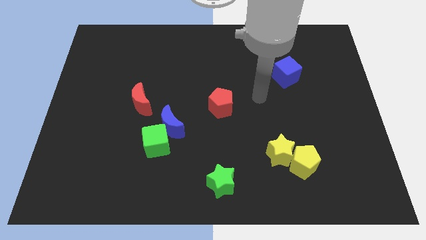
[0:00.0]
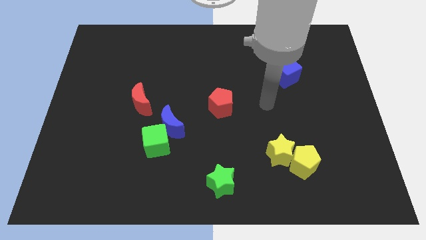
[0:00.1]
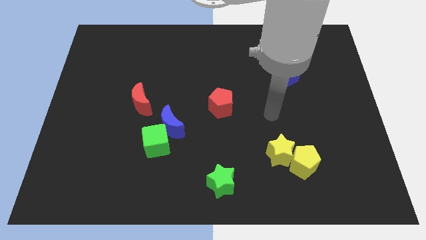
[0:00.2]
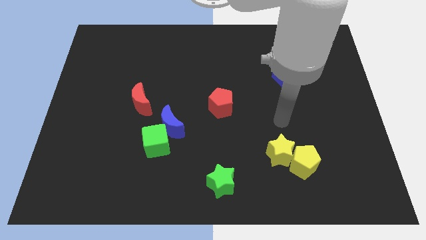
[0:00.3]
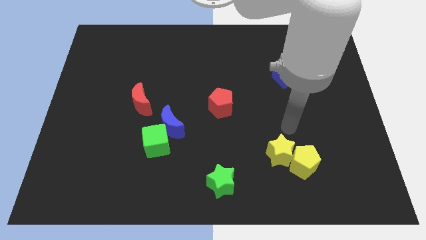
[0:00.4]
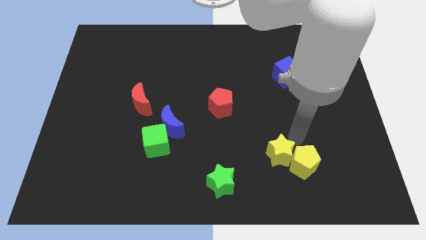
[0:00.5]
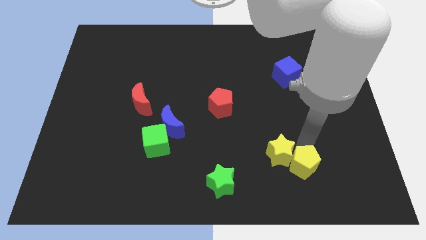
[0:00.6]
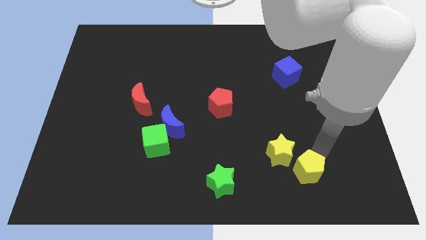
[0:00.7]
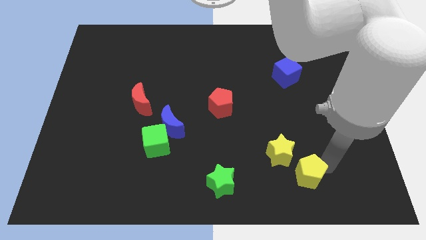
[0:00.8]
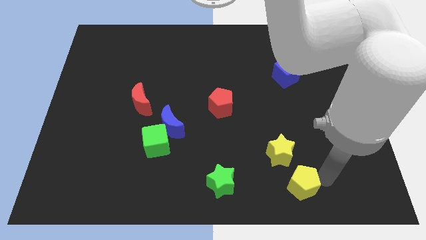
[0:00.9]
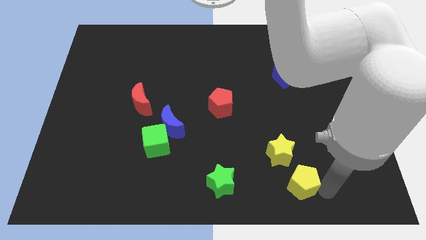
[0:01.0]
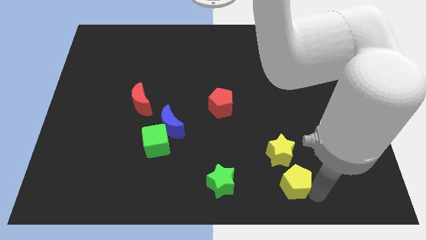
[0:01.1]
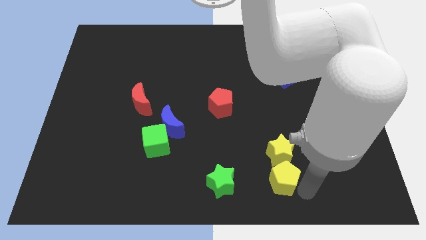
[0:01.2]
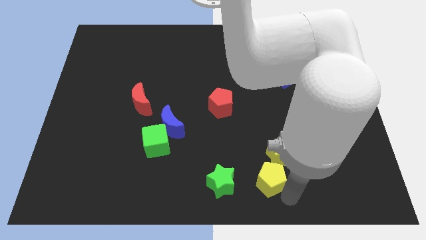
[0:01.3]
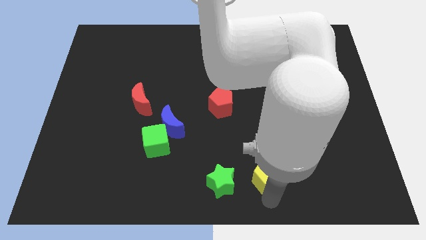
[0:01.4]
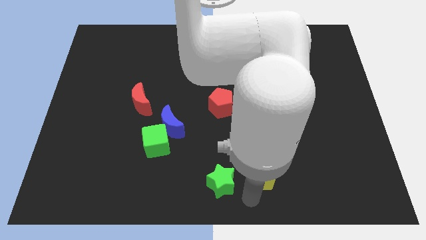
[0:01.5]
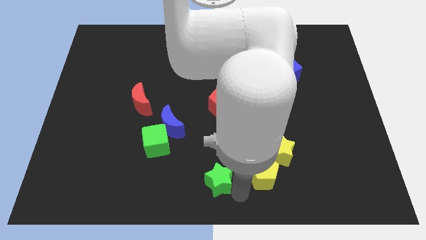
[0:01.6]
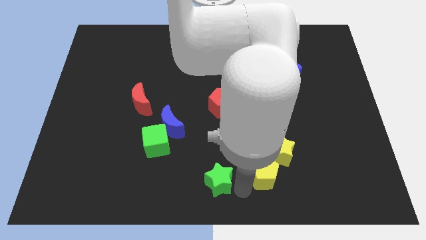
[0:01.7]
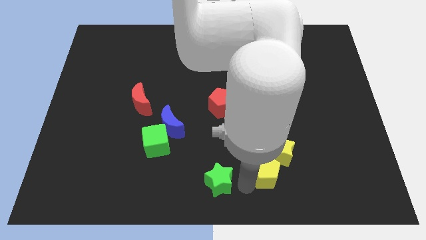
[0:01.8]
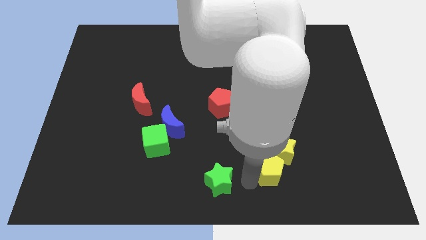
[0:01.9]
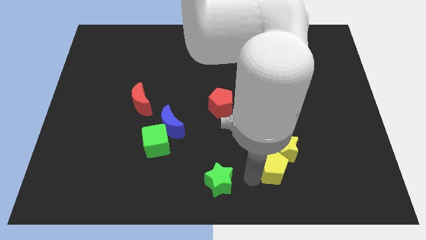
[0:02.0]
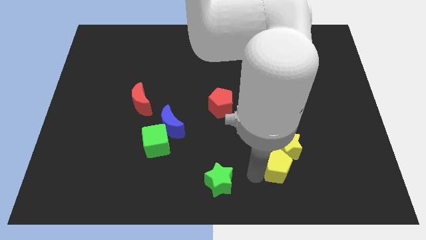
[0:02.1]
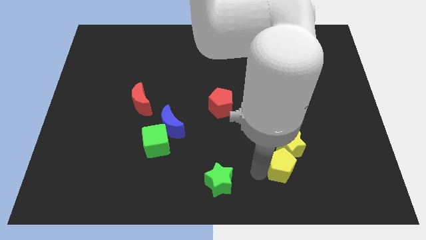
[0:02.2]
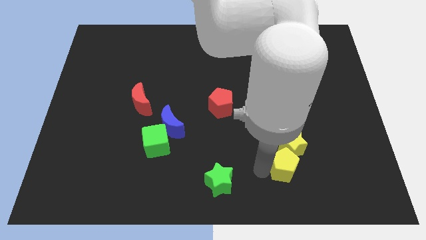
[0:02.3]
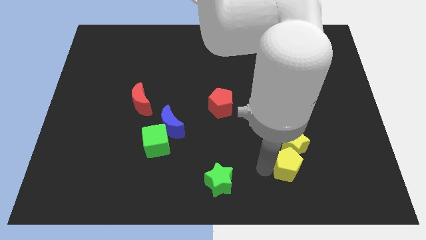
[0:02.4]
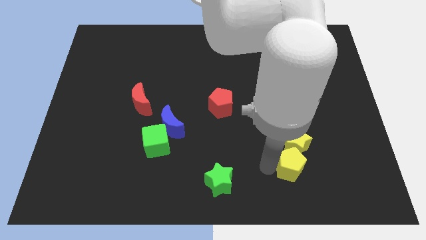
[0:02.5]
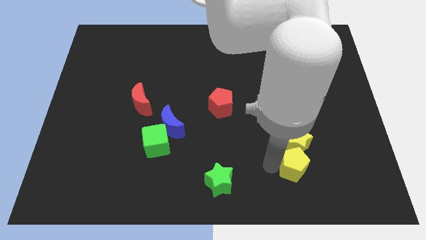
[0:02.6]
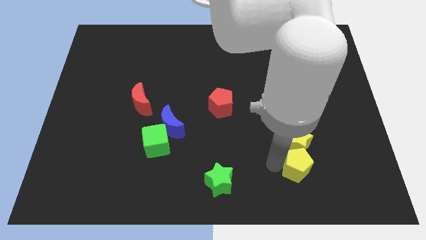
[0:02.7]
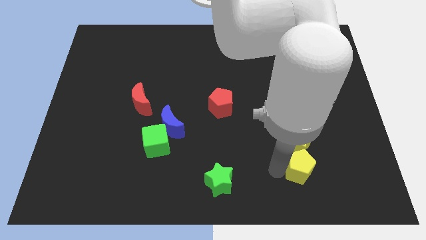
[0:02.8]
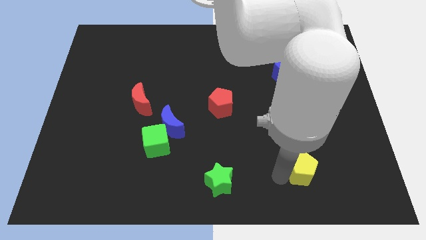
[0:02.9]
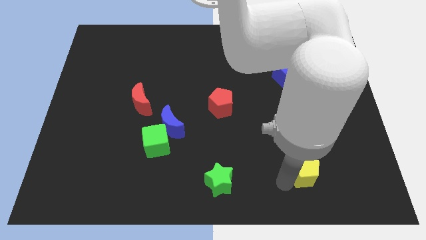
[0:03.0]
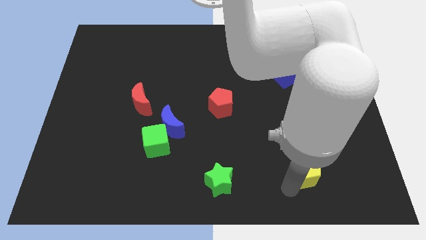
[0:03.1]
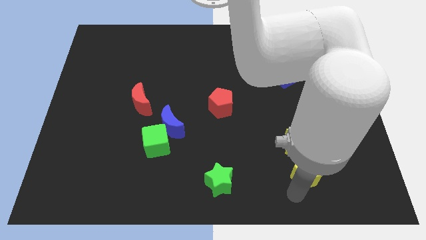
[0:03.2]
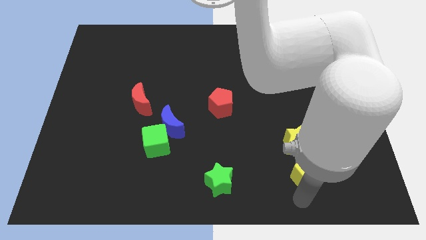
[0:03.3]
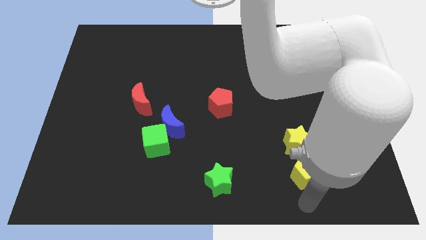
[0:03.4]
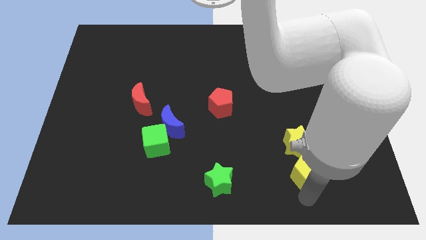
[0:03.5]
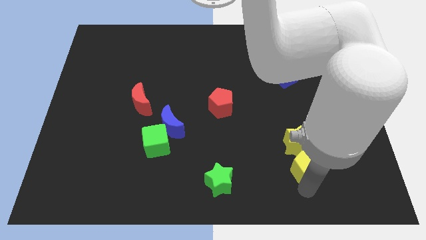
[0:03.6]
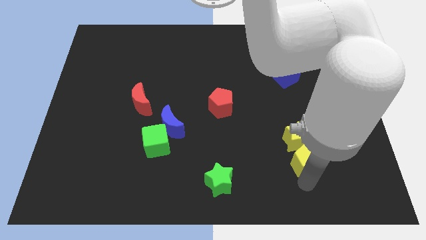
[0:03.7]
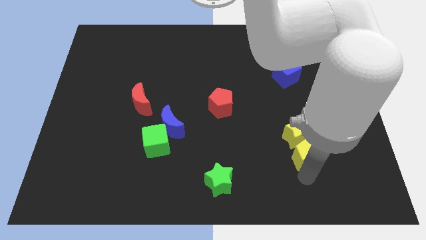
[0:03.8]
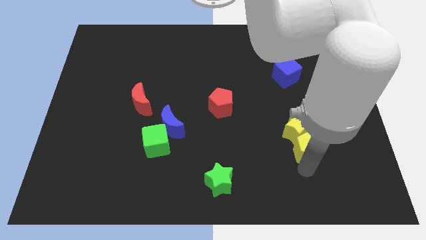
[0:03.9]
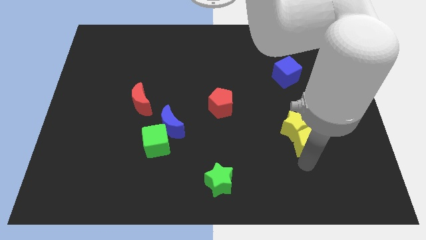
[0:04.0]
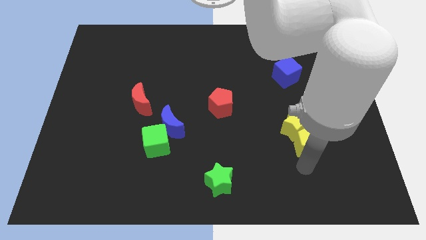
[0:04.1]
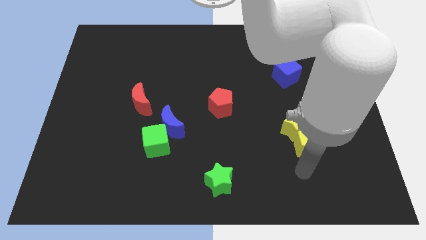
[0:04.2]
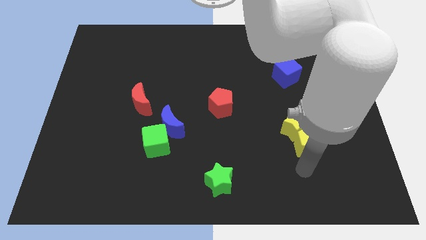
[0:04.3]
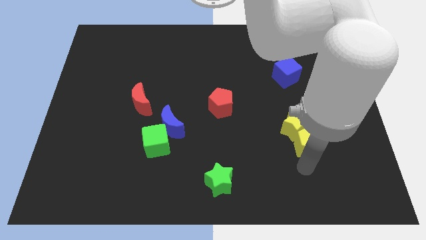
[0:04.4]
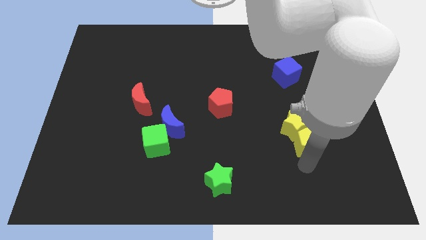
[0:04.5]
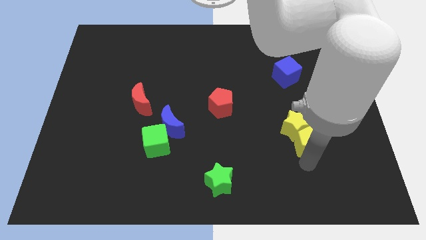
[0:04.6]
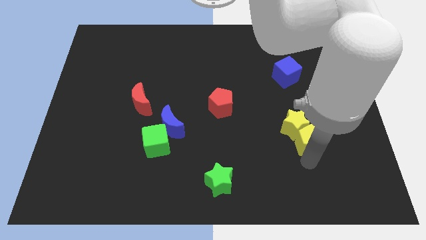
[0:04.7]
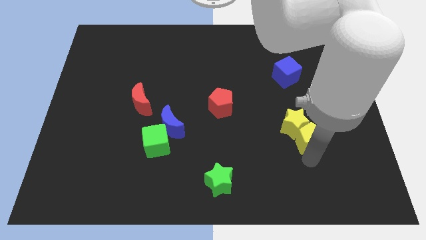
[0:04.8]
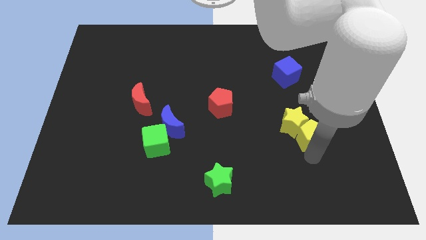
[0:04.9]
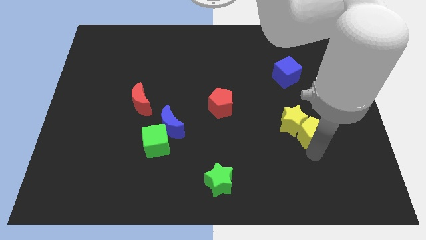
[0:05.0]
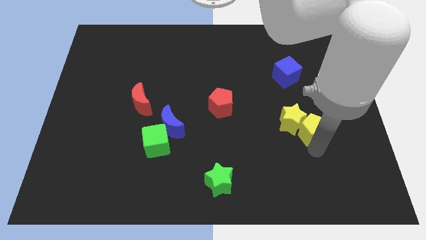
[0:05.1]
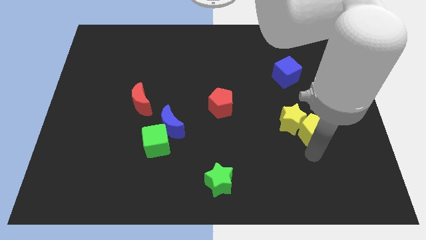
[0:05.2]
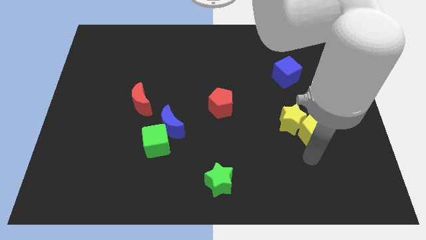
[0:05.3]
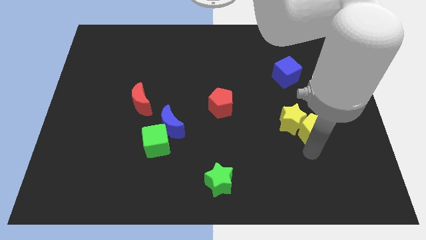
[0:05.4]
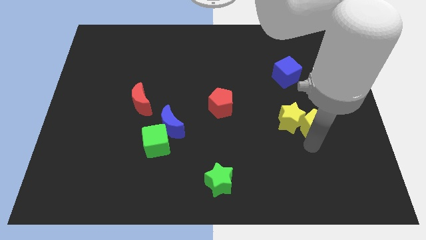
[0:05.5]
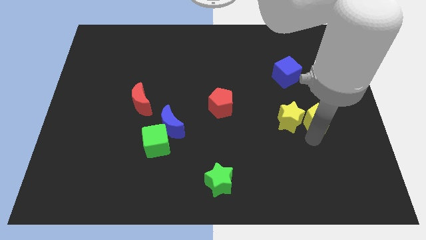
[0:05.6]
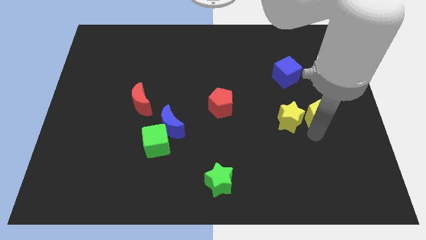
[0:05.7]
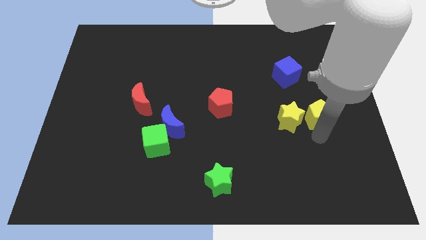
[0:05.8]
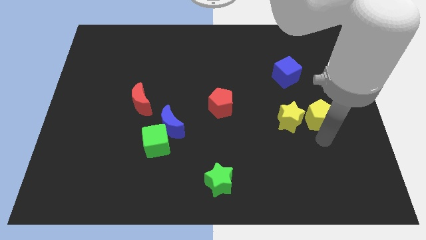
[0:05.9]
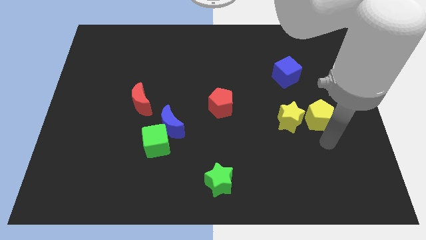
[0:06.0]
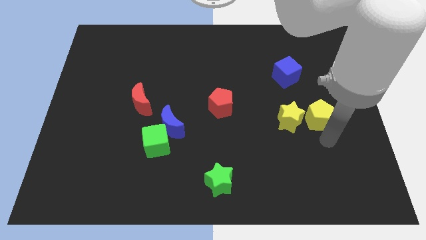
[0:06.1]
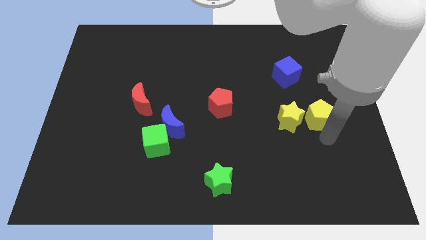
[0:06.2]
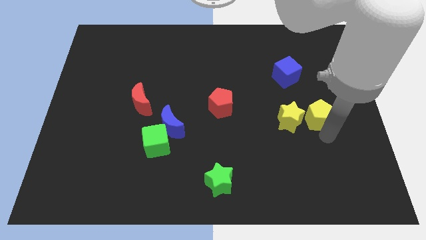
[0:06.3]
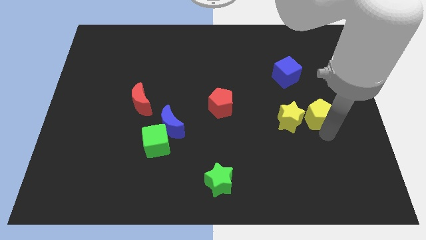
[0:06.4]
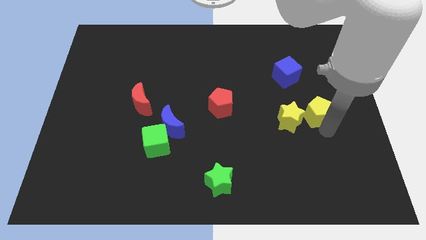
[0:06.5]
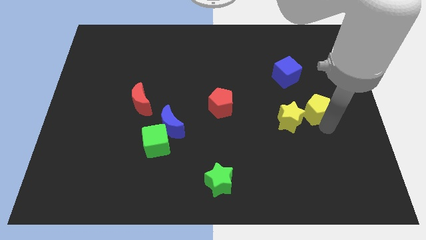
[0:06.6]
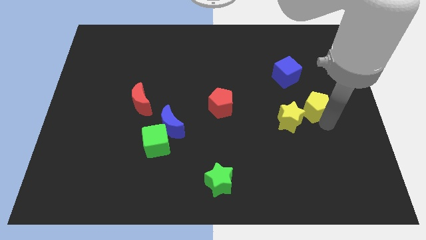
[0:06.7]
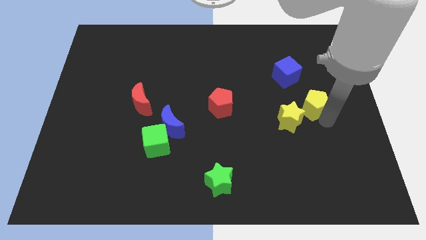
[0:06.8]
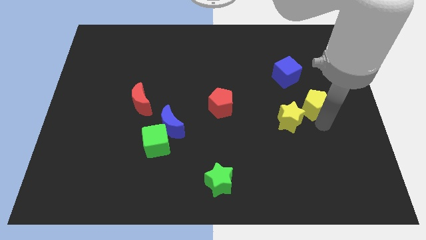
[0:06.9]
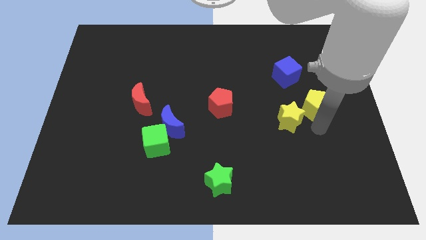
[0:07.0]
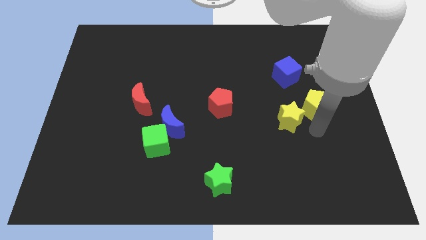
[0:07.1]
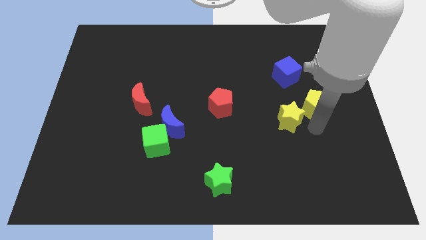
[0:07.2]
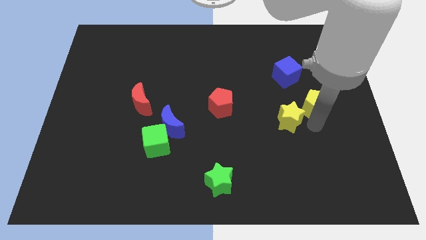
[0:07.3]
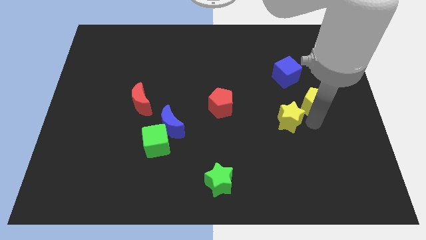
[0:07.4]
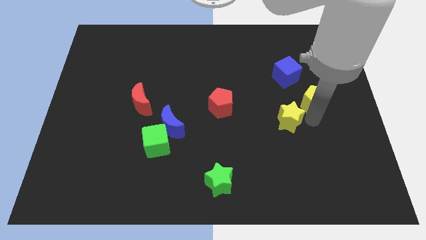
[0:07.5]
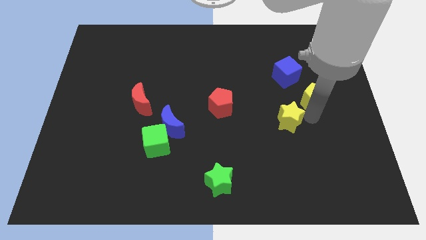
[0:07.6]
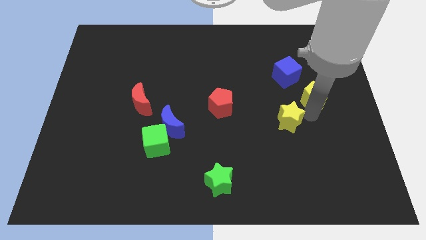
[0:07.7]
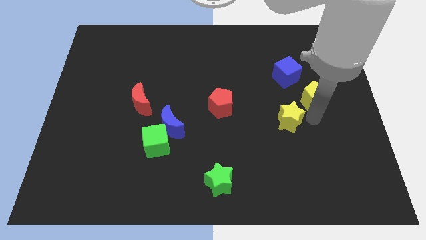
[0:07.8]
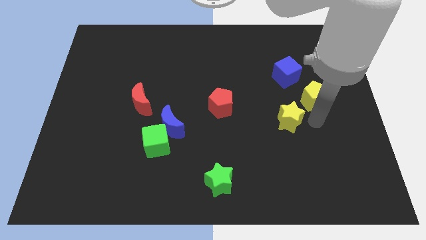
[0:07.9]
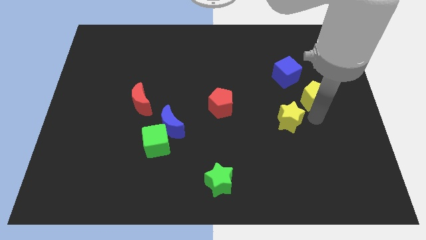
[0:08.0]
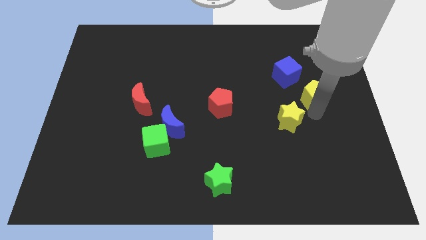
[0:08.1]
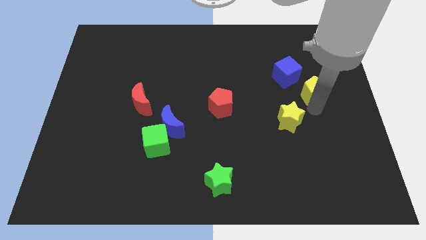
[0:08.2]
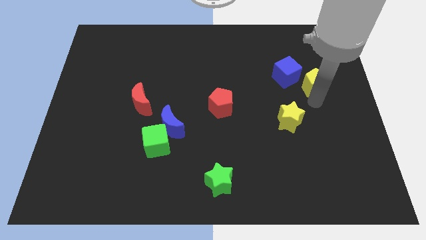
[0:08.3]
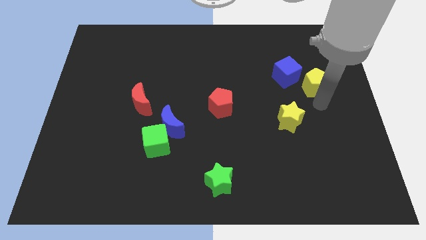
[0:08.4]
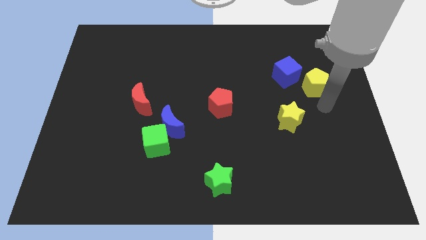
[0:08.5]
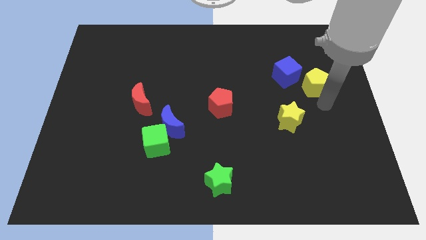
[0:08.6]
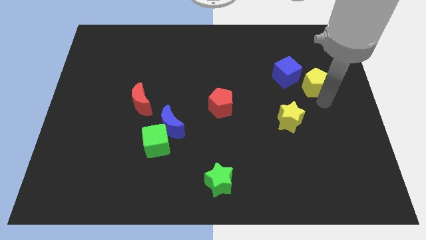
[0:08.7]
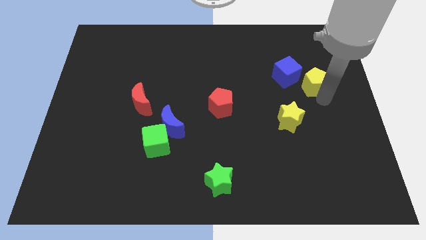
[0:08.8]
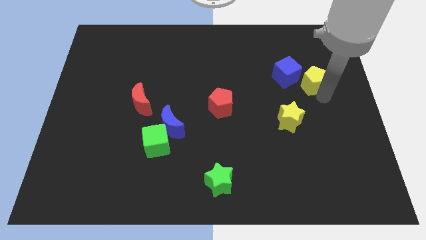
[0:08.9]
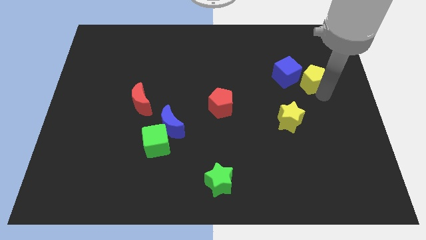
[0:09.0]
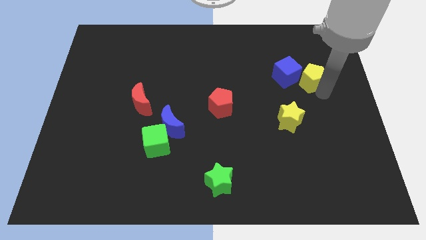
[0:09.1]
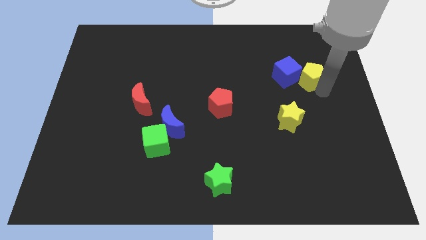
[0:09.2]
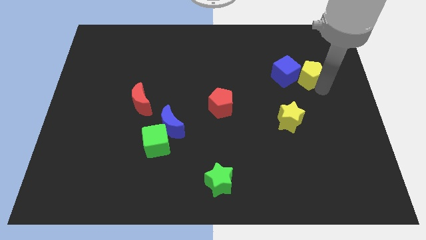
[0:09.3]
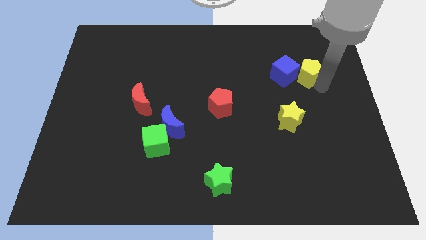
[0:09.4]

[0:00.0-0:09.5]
put the yellow pentagon to the top right side of the blue cube
